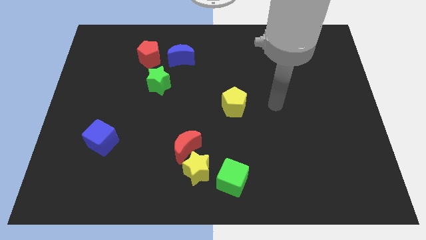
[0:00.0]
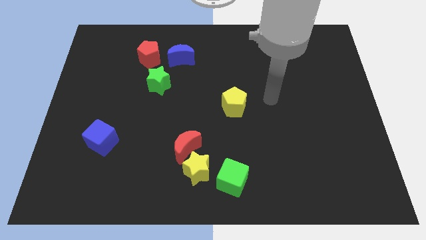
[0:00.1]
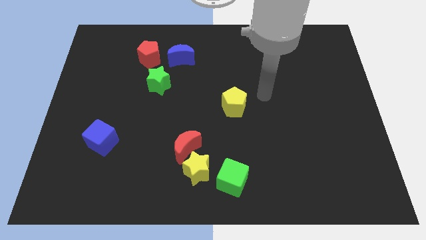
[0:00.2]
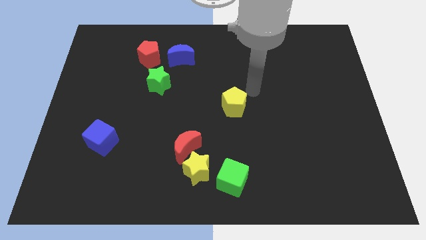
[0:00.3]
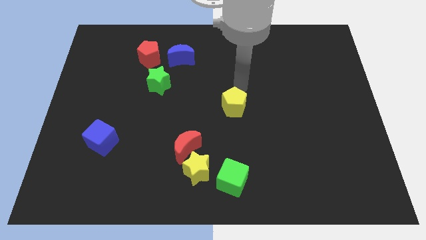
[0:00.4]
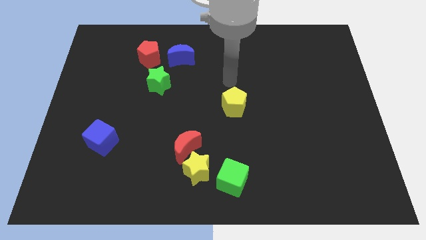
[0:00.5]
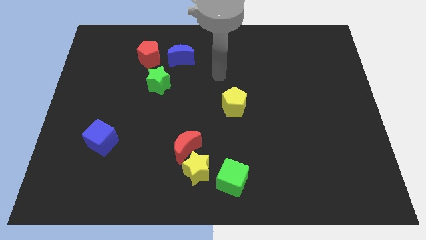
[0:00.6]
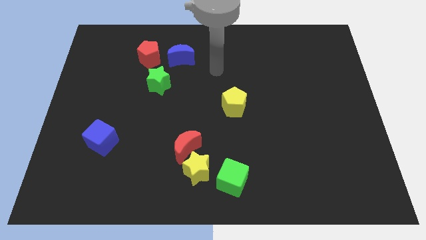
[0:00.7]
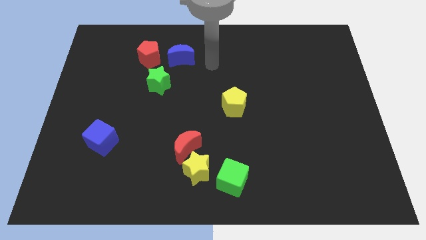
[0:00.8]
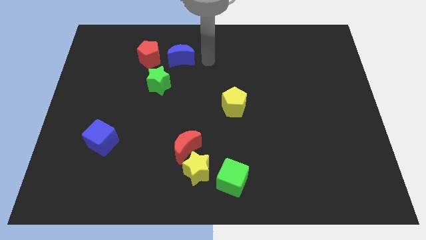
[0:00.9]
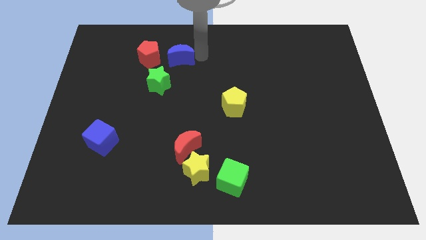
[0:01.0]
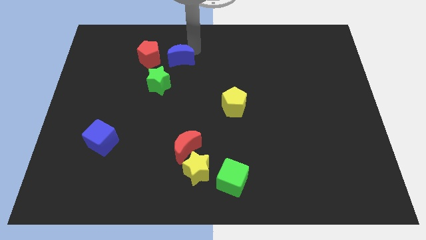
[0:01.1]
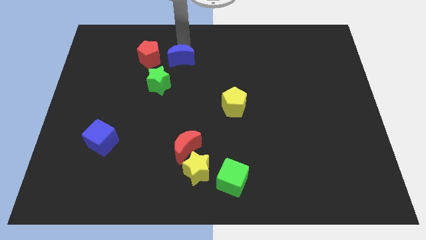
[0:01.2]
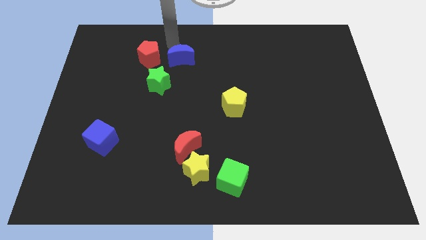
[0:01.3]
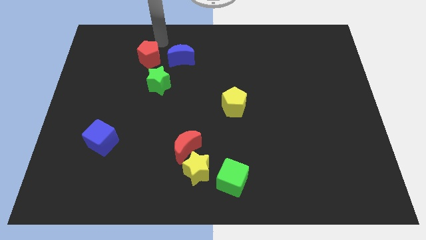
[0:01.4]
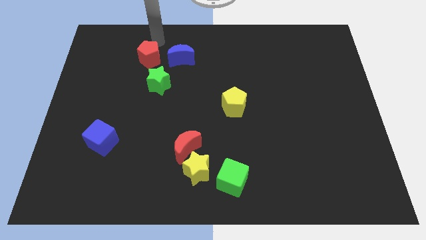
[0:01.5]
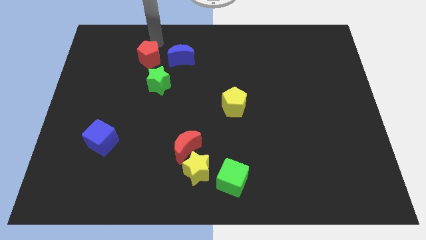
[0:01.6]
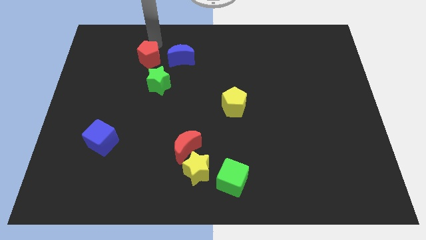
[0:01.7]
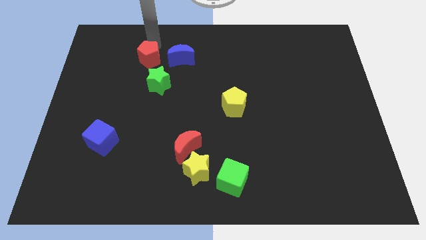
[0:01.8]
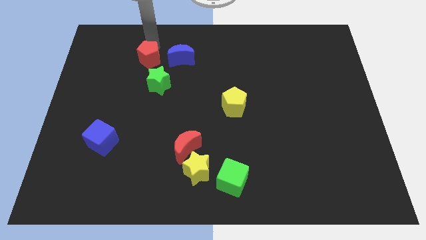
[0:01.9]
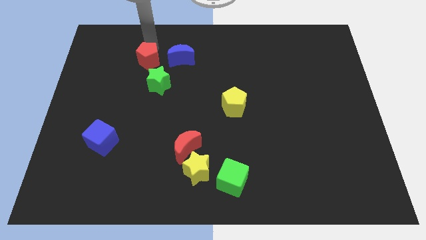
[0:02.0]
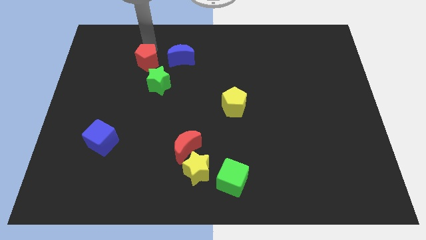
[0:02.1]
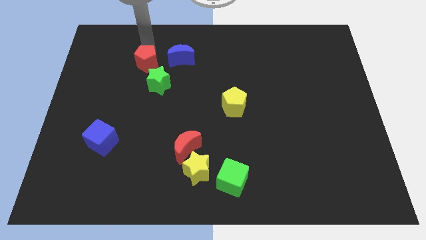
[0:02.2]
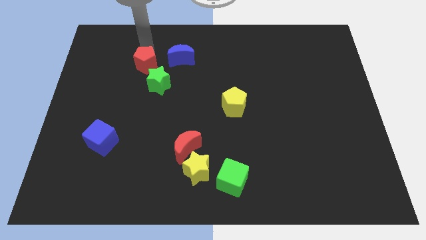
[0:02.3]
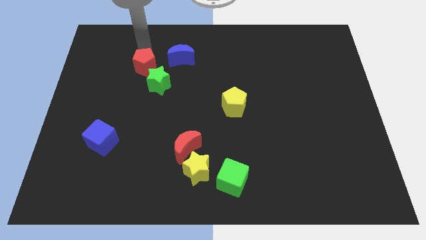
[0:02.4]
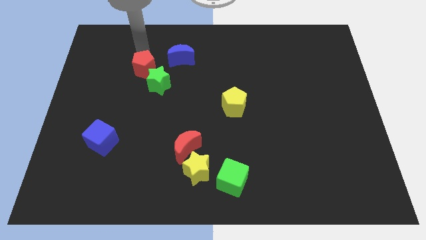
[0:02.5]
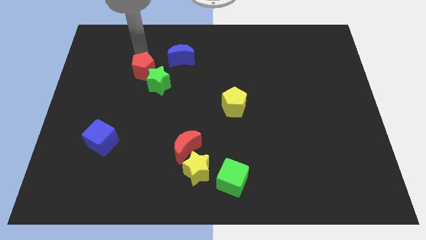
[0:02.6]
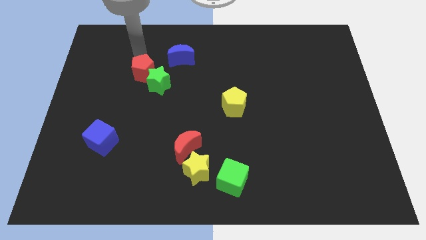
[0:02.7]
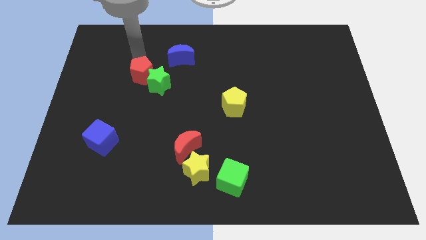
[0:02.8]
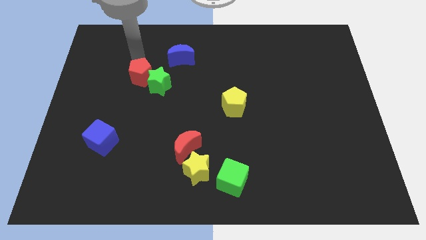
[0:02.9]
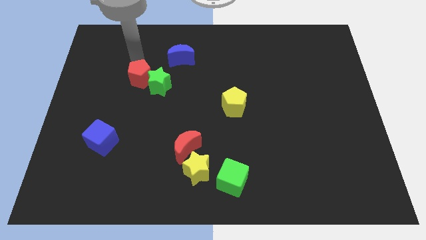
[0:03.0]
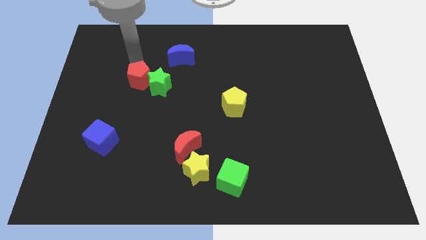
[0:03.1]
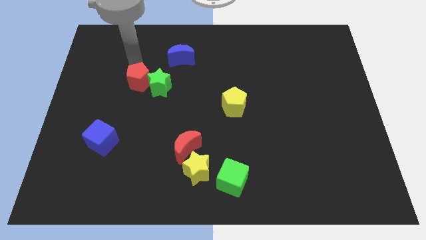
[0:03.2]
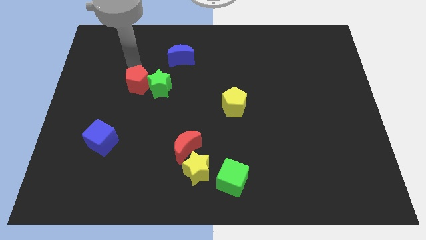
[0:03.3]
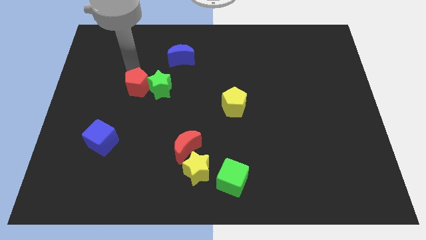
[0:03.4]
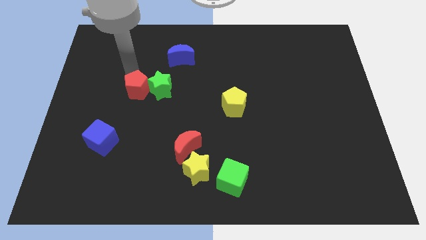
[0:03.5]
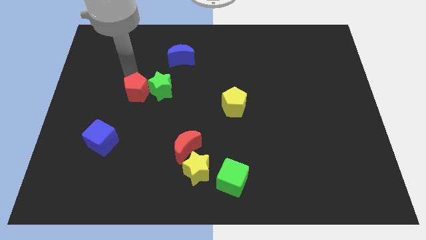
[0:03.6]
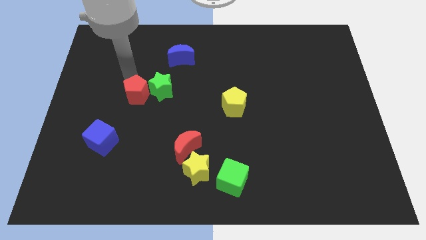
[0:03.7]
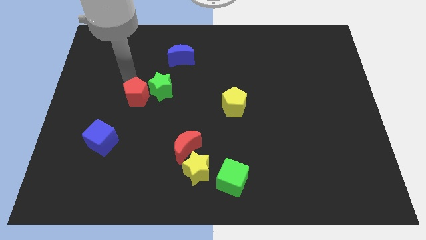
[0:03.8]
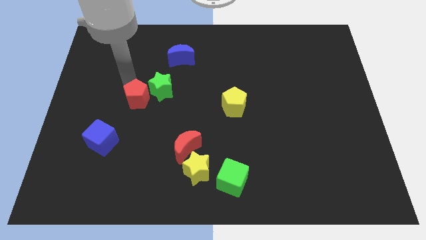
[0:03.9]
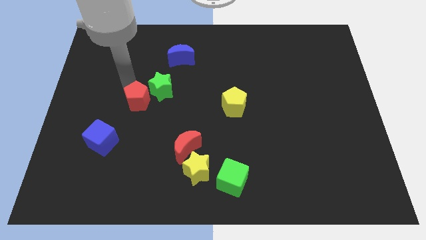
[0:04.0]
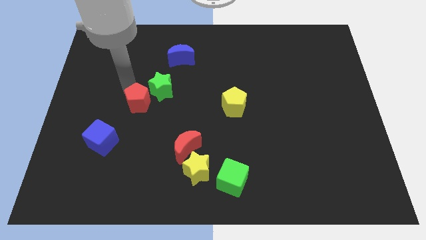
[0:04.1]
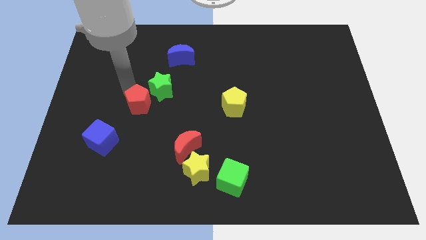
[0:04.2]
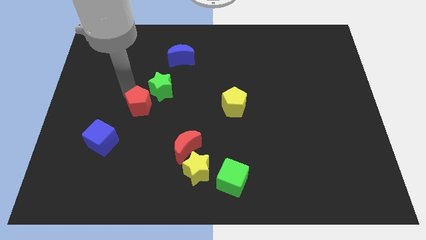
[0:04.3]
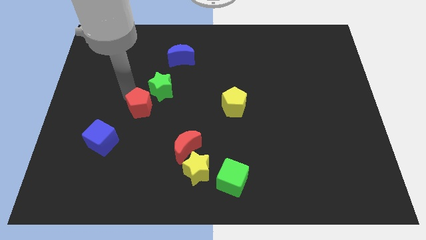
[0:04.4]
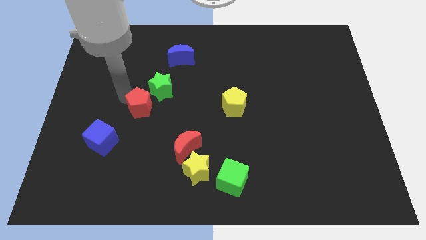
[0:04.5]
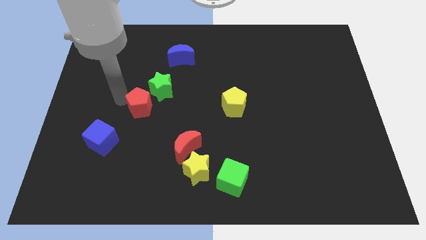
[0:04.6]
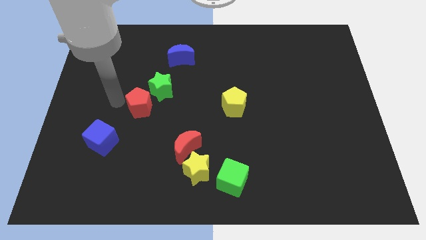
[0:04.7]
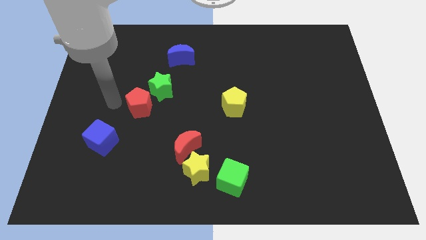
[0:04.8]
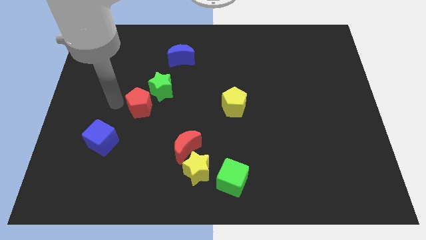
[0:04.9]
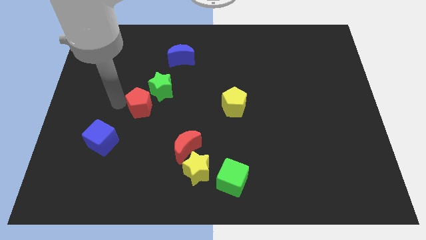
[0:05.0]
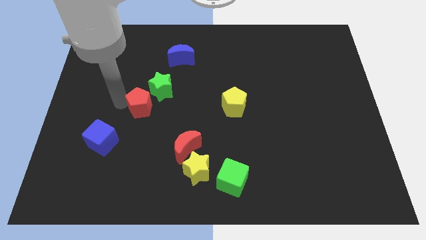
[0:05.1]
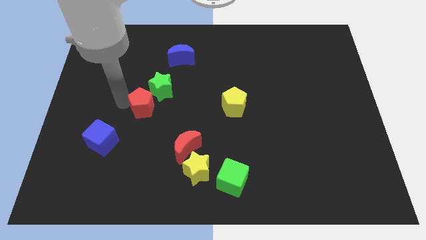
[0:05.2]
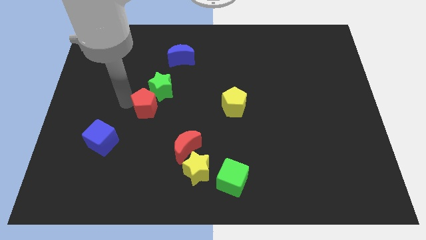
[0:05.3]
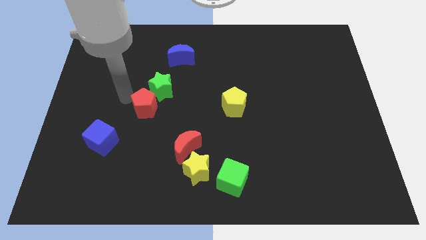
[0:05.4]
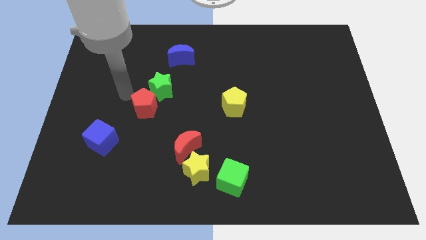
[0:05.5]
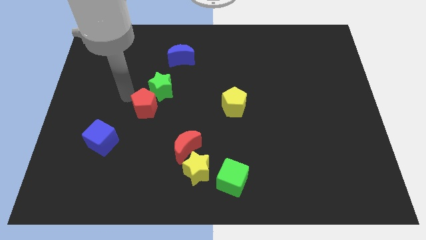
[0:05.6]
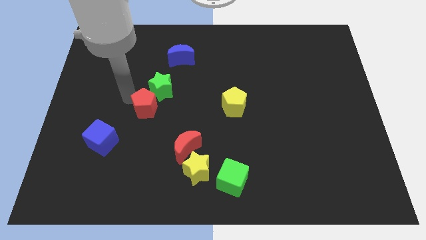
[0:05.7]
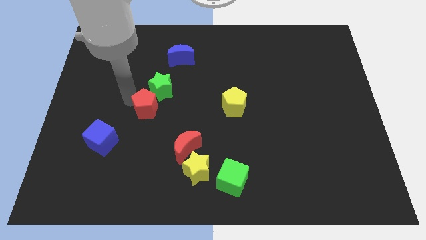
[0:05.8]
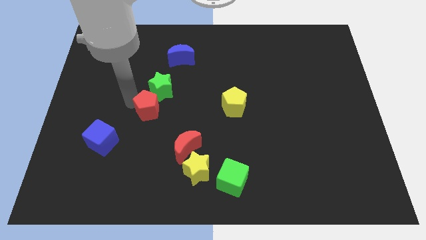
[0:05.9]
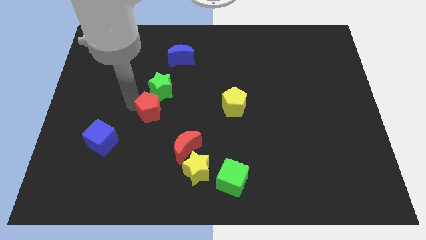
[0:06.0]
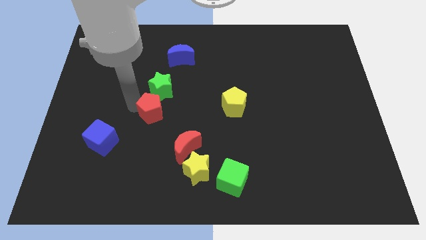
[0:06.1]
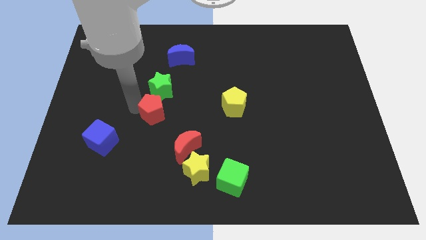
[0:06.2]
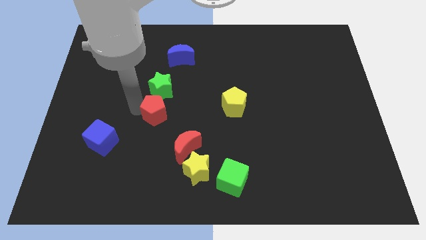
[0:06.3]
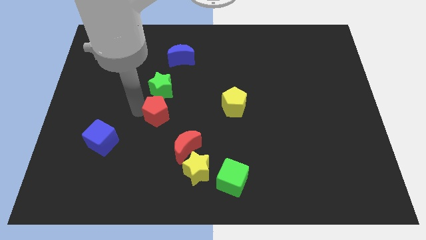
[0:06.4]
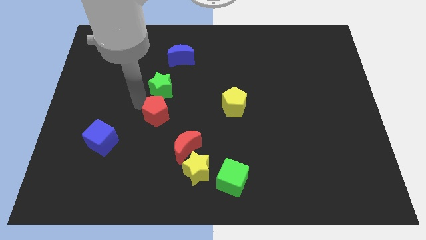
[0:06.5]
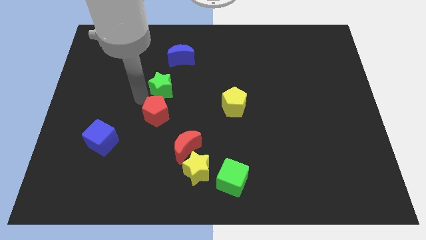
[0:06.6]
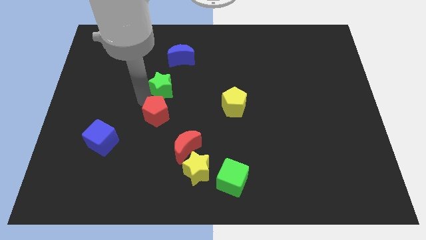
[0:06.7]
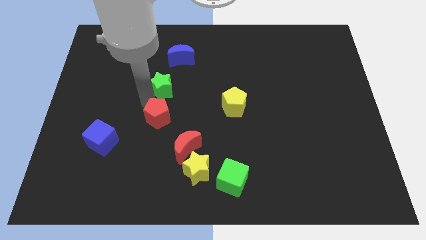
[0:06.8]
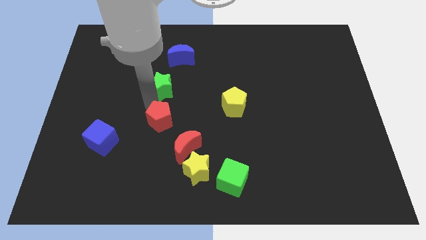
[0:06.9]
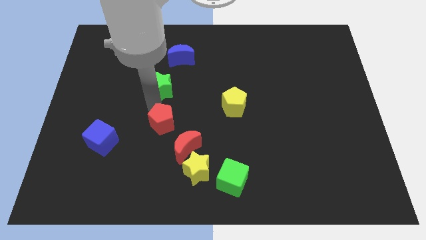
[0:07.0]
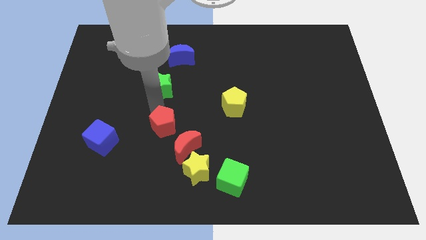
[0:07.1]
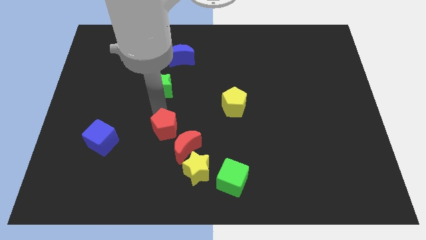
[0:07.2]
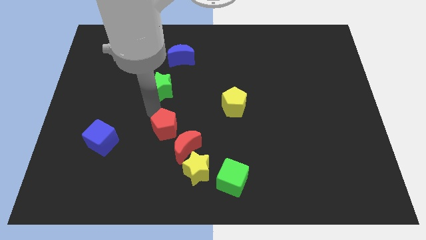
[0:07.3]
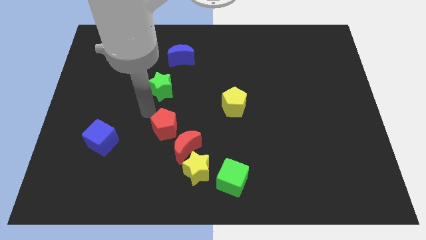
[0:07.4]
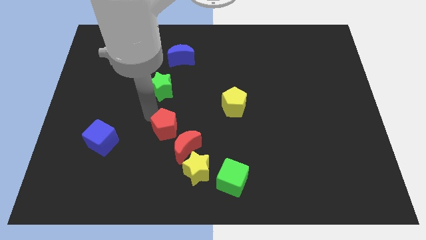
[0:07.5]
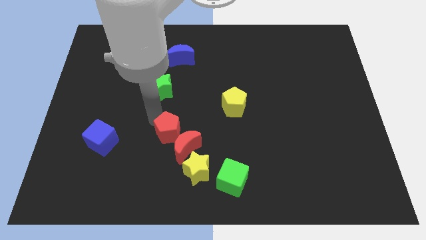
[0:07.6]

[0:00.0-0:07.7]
move the red pentagon close to the red moon

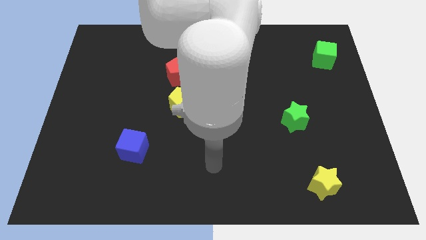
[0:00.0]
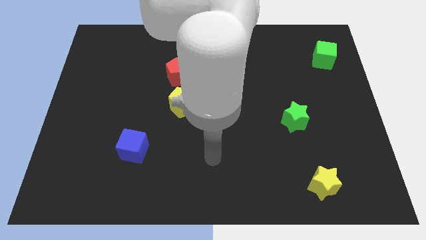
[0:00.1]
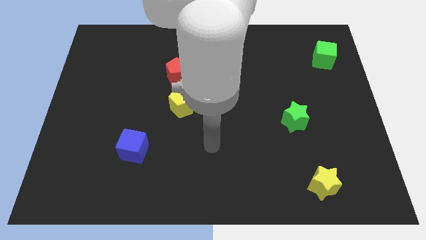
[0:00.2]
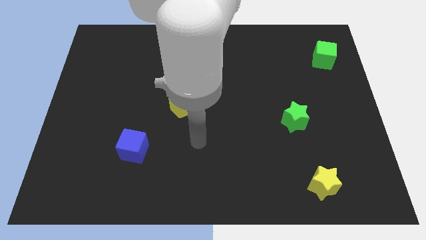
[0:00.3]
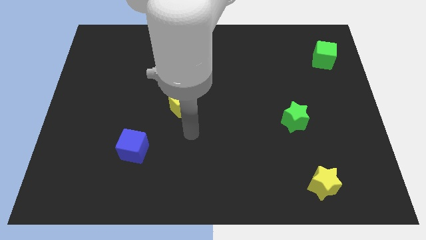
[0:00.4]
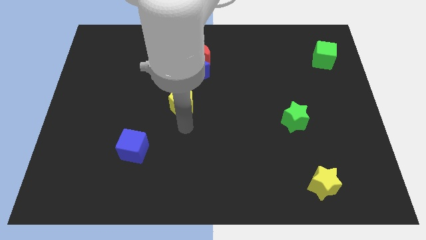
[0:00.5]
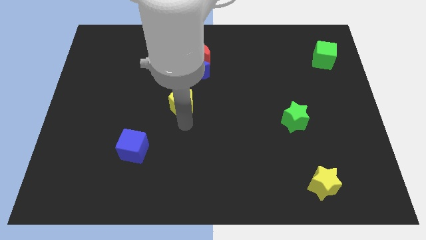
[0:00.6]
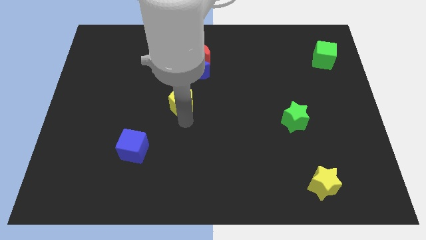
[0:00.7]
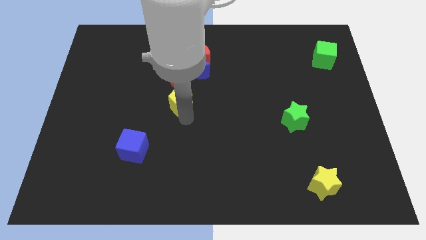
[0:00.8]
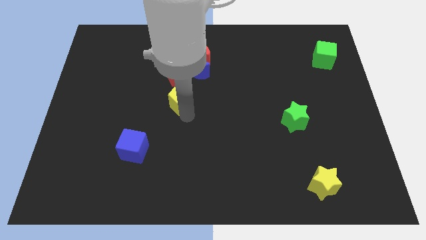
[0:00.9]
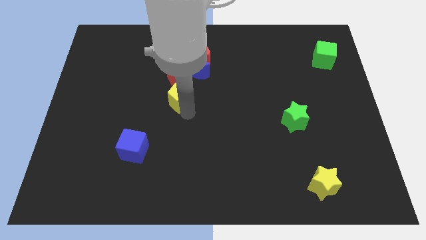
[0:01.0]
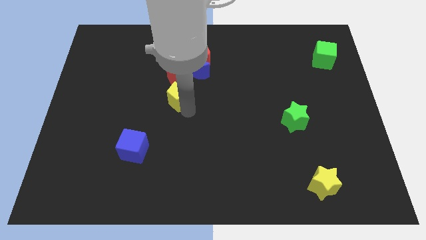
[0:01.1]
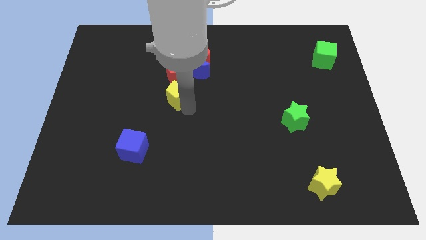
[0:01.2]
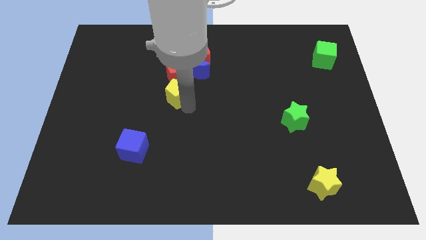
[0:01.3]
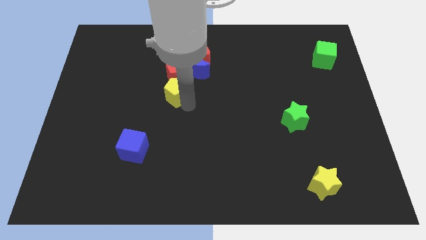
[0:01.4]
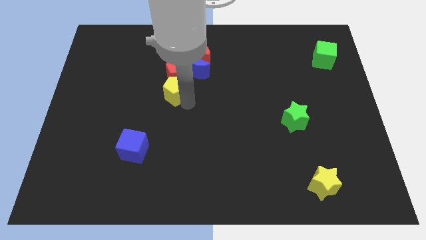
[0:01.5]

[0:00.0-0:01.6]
push the yellow pentagon to the red pentagon
